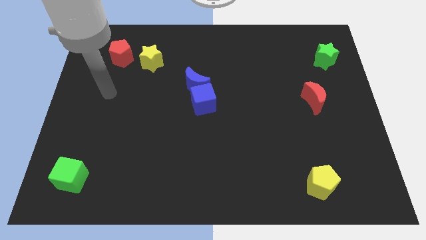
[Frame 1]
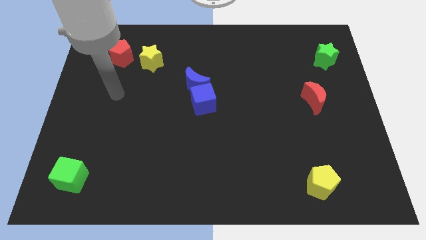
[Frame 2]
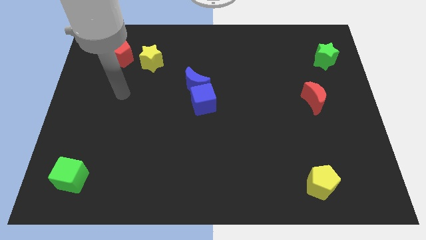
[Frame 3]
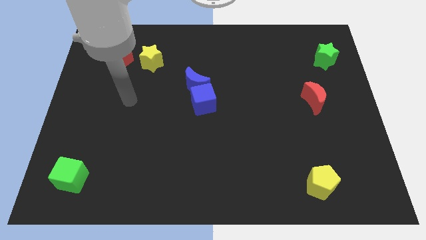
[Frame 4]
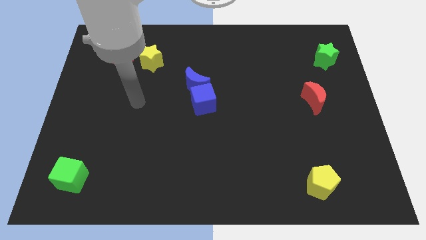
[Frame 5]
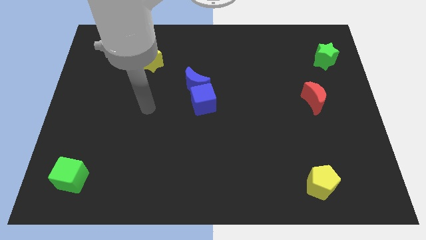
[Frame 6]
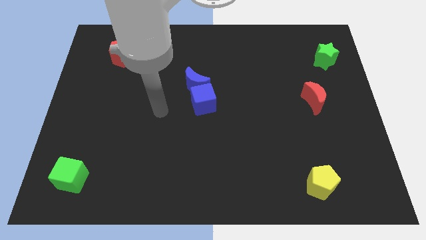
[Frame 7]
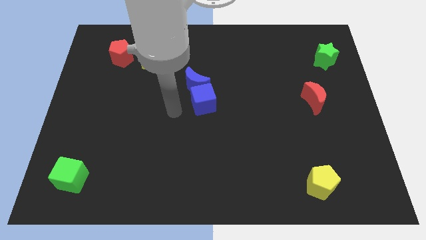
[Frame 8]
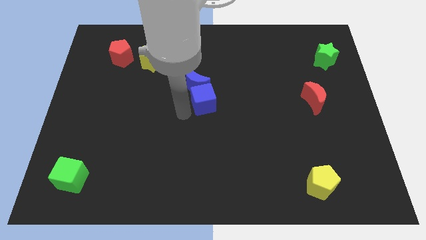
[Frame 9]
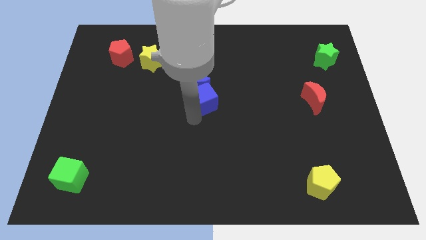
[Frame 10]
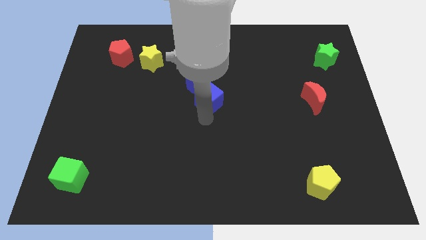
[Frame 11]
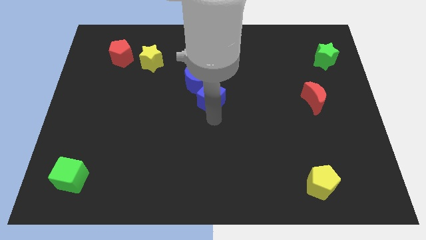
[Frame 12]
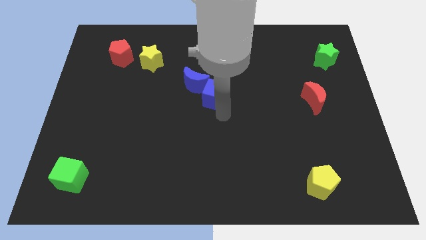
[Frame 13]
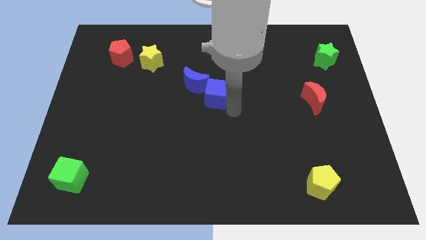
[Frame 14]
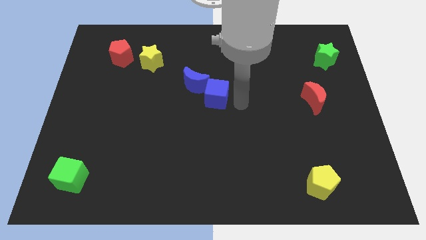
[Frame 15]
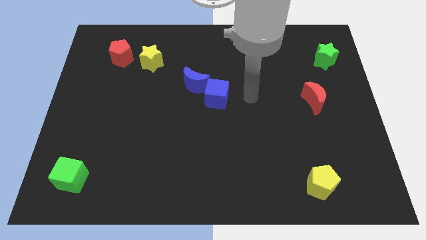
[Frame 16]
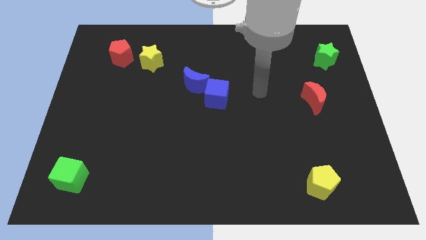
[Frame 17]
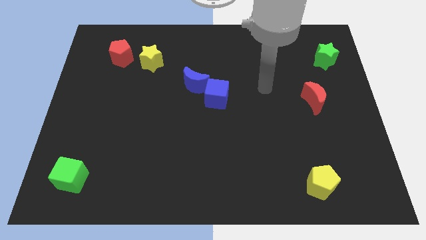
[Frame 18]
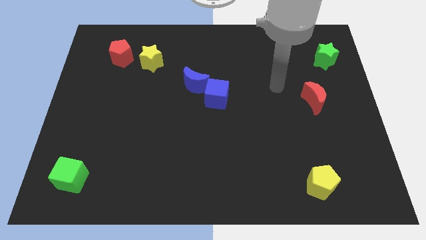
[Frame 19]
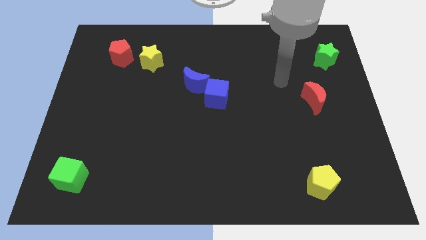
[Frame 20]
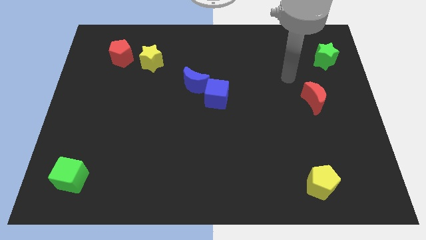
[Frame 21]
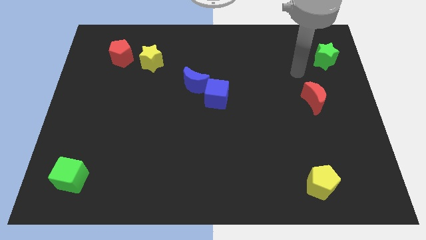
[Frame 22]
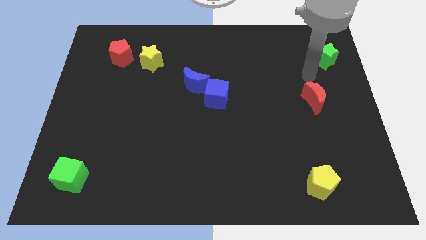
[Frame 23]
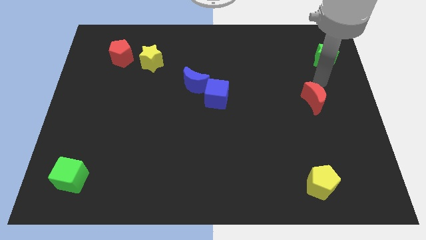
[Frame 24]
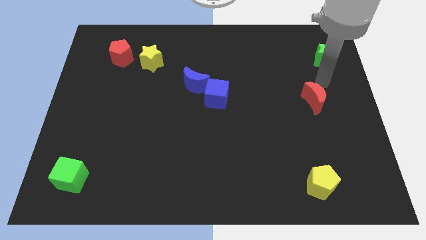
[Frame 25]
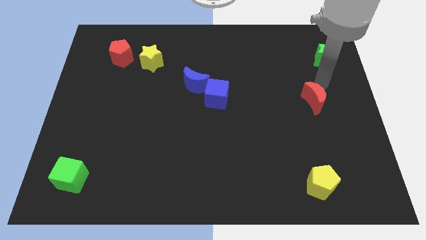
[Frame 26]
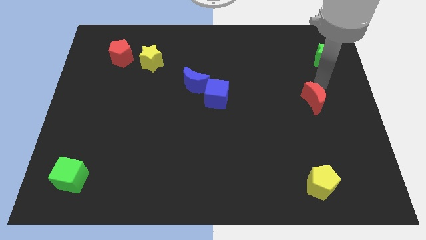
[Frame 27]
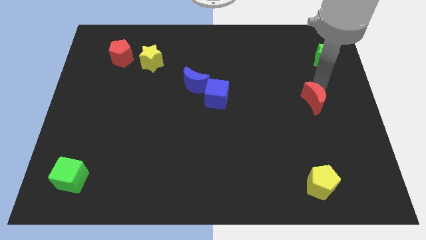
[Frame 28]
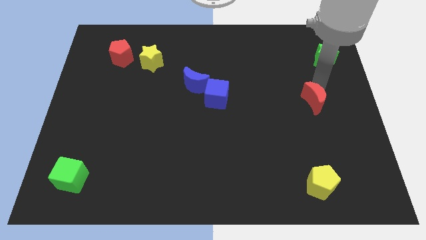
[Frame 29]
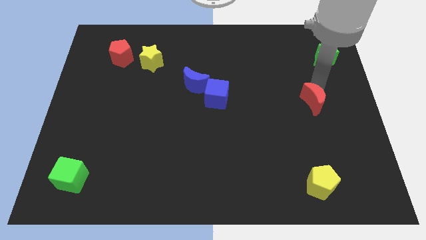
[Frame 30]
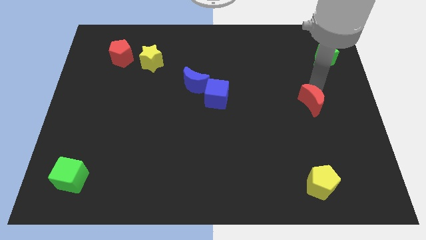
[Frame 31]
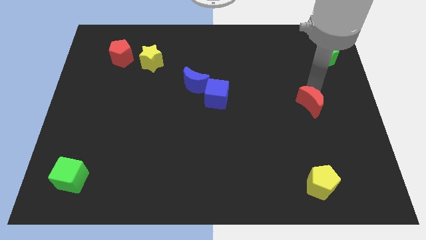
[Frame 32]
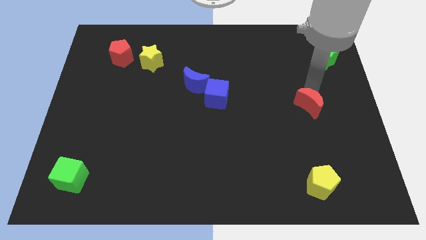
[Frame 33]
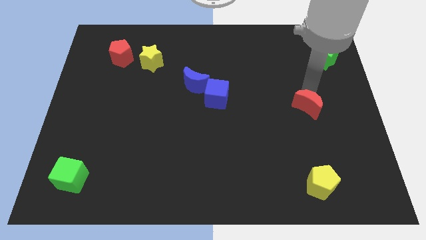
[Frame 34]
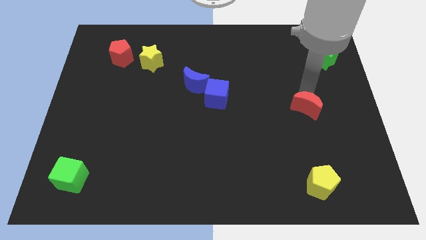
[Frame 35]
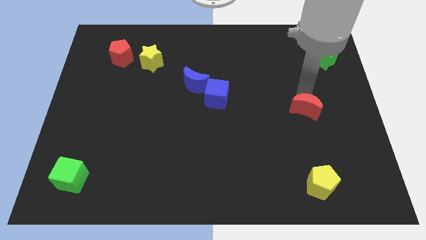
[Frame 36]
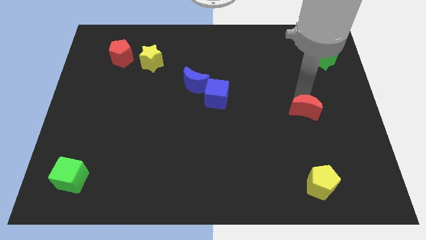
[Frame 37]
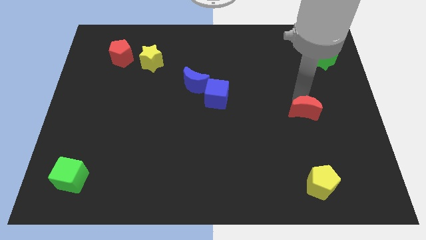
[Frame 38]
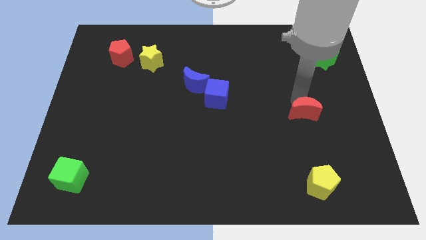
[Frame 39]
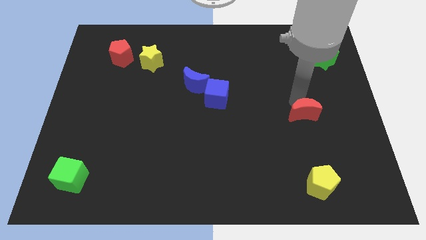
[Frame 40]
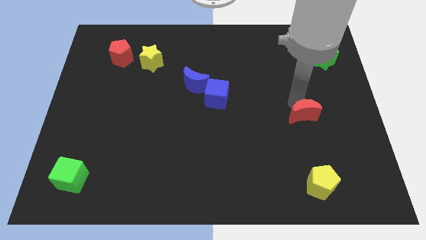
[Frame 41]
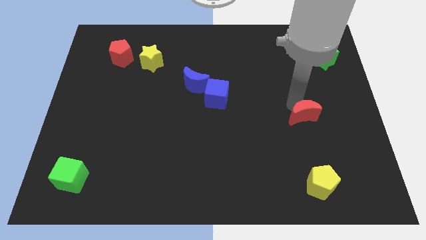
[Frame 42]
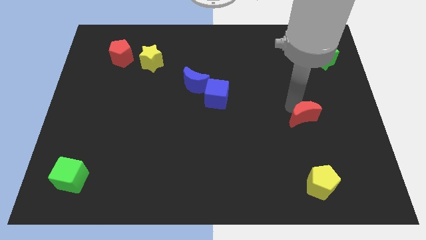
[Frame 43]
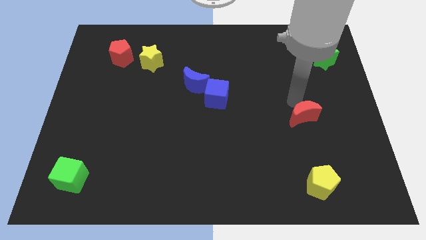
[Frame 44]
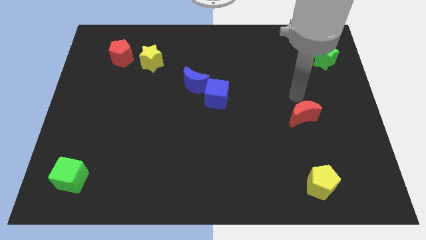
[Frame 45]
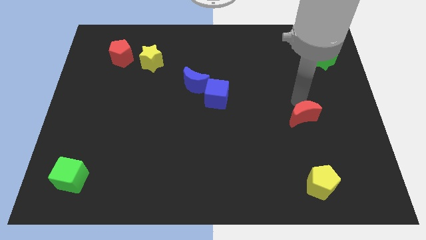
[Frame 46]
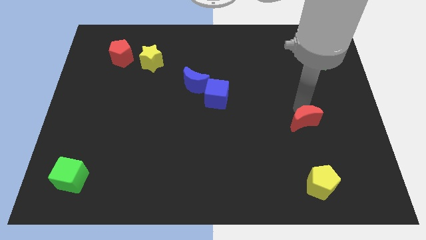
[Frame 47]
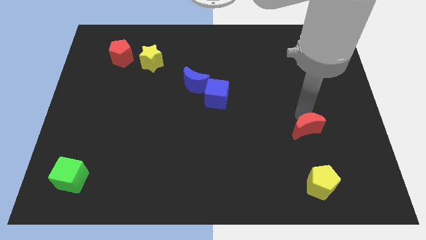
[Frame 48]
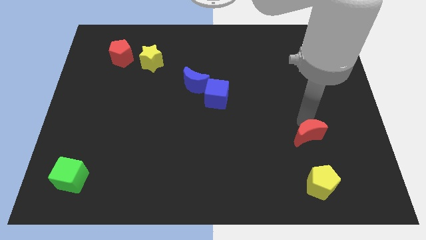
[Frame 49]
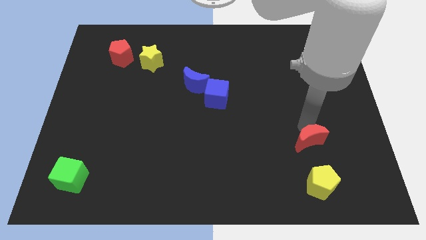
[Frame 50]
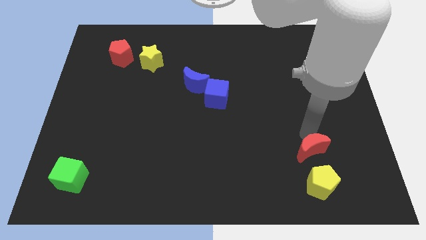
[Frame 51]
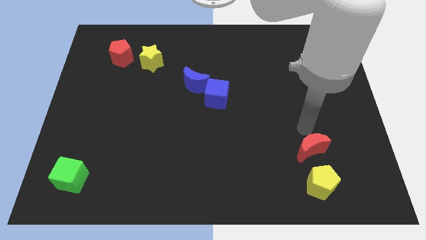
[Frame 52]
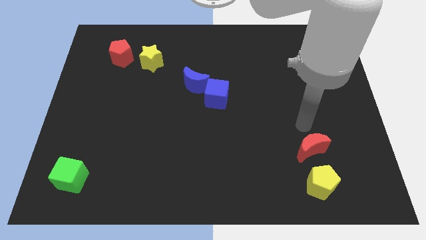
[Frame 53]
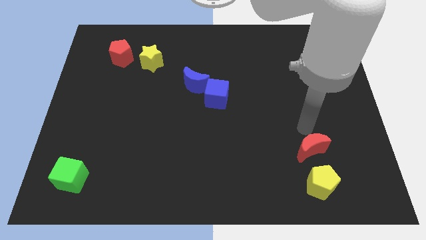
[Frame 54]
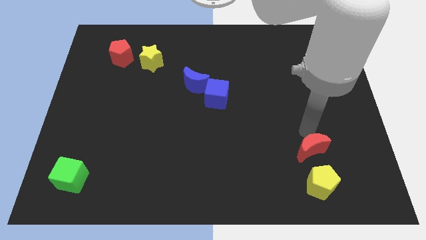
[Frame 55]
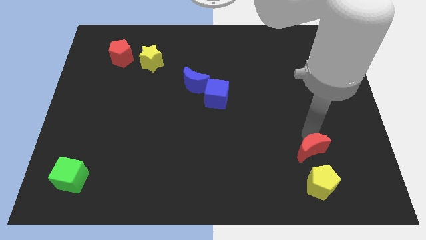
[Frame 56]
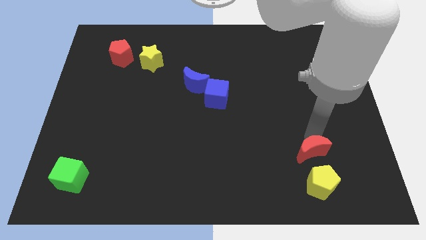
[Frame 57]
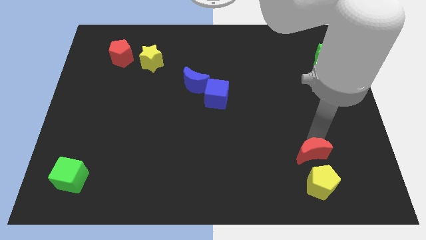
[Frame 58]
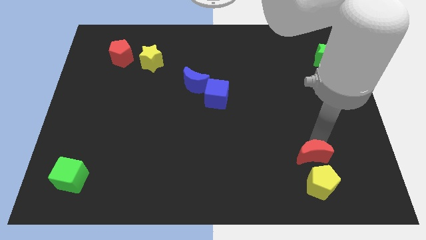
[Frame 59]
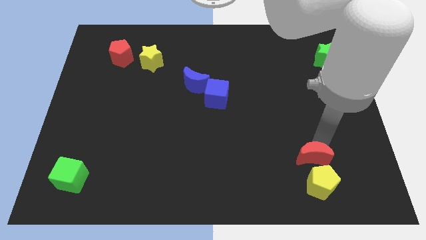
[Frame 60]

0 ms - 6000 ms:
put the red moon towards the yellow pentagon

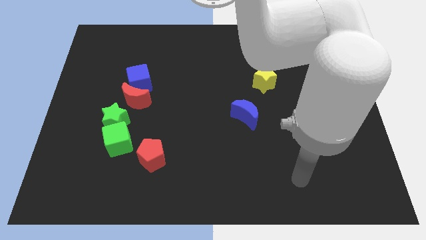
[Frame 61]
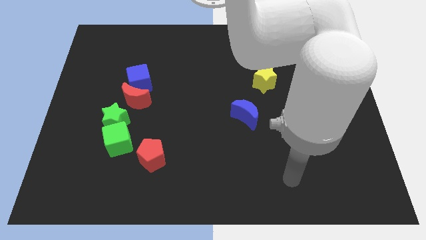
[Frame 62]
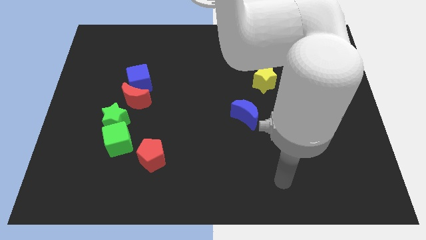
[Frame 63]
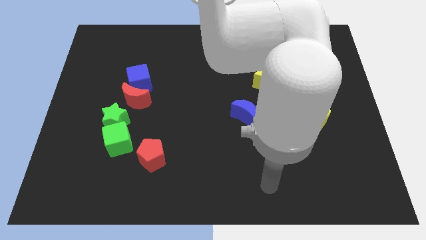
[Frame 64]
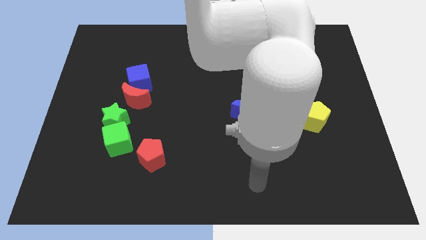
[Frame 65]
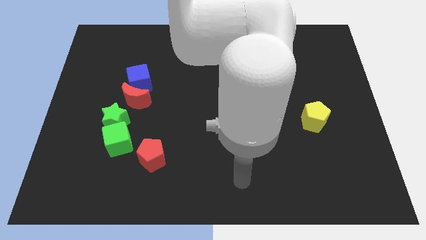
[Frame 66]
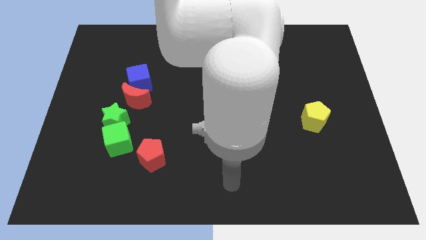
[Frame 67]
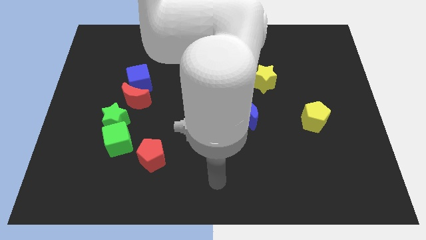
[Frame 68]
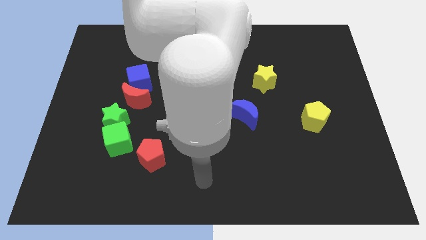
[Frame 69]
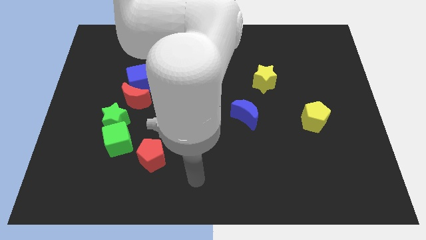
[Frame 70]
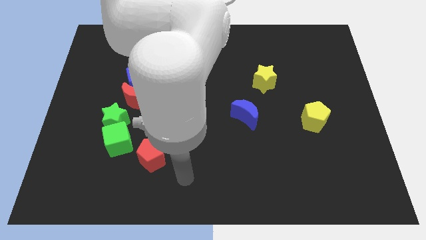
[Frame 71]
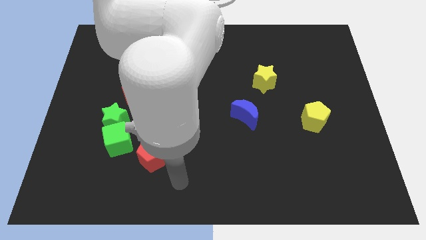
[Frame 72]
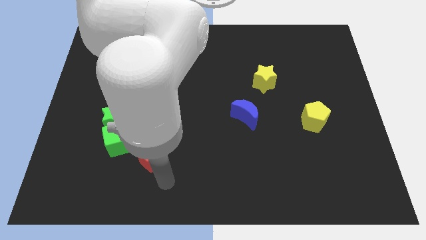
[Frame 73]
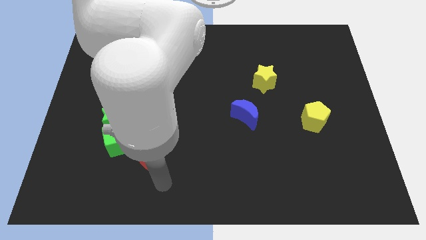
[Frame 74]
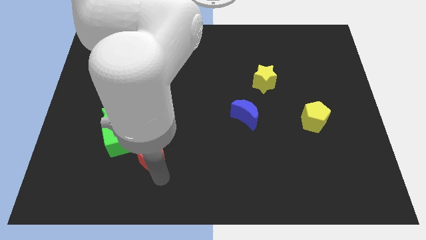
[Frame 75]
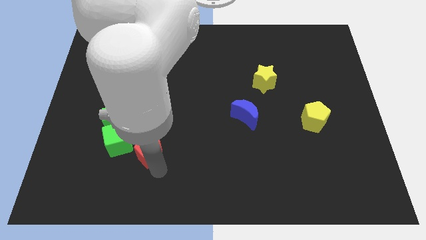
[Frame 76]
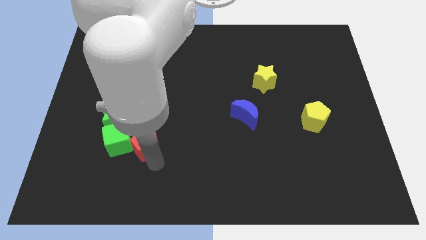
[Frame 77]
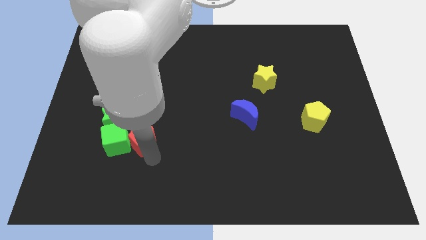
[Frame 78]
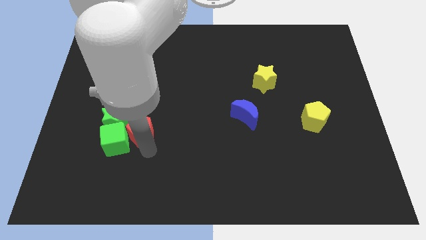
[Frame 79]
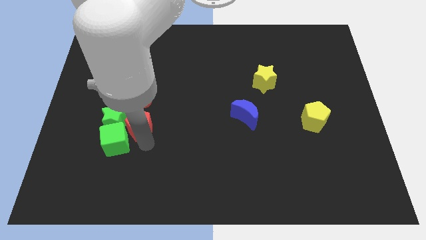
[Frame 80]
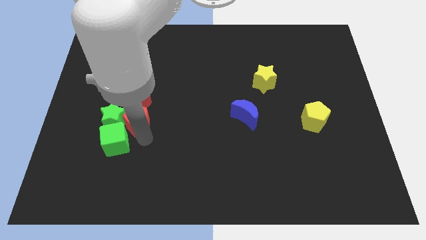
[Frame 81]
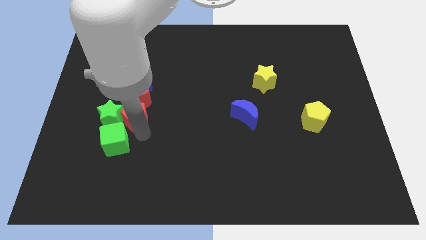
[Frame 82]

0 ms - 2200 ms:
push the red pentagon next to the red moon
